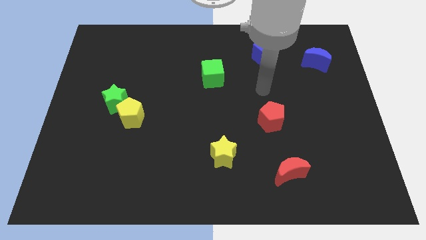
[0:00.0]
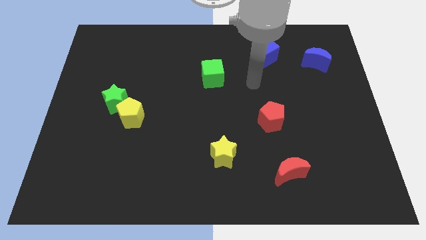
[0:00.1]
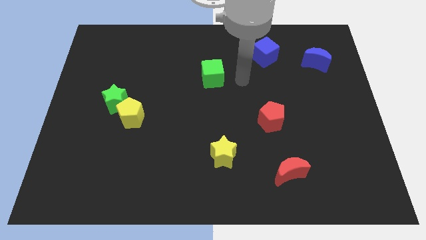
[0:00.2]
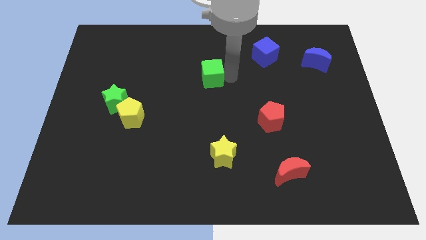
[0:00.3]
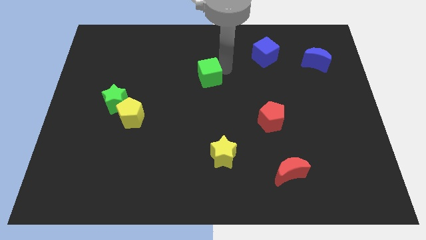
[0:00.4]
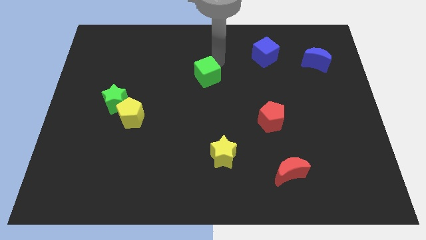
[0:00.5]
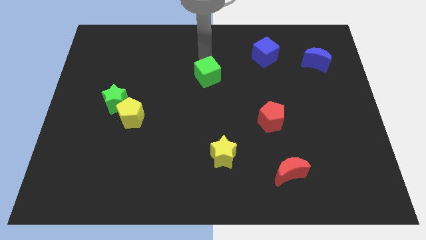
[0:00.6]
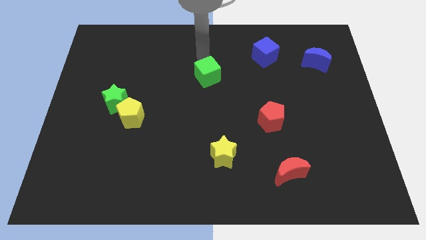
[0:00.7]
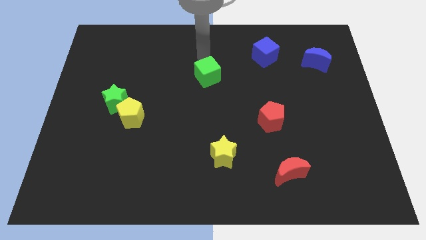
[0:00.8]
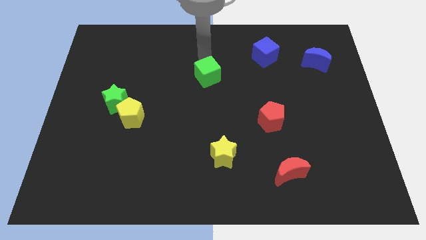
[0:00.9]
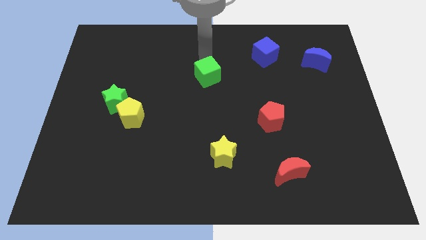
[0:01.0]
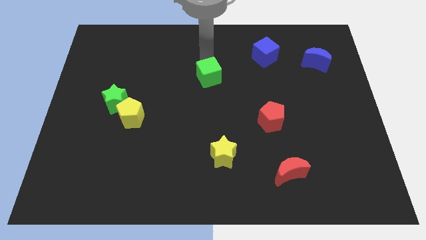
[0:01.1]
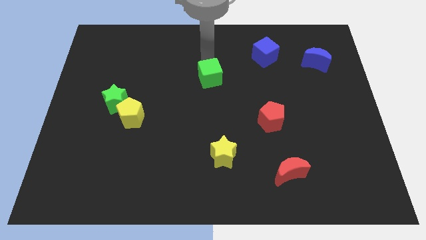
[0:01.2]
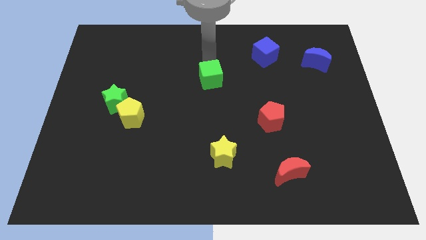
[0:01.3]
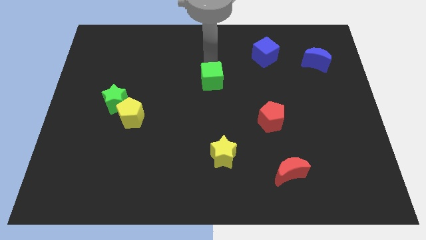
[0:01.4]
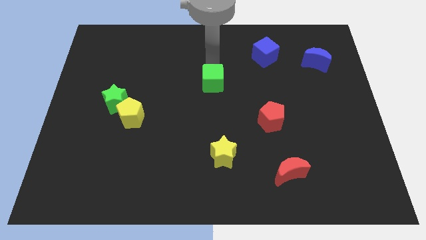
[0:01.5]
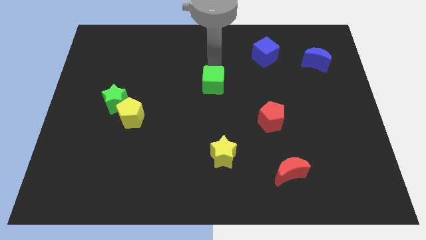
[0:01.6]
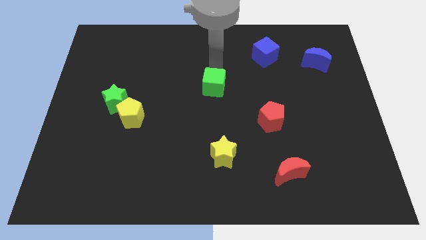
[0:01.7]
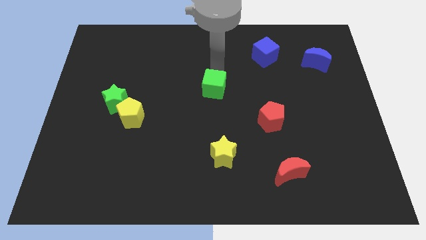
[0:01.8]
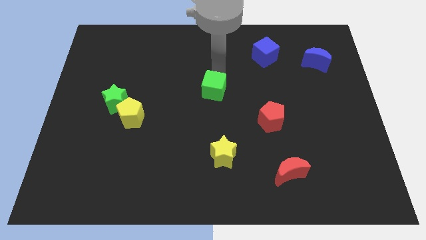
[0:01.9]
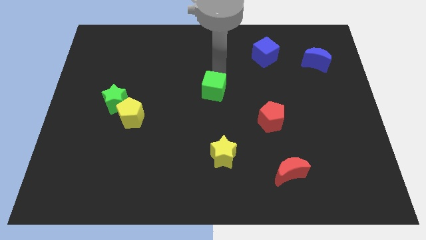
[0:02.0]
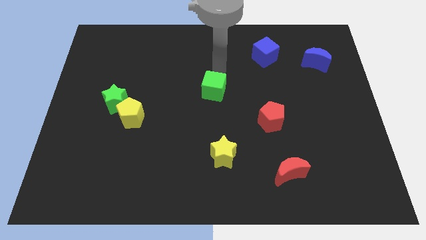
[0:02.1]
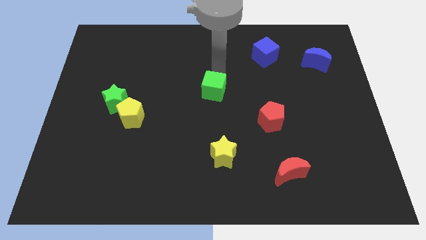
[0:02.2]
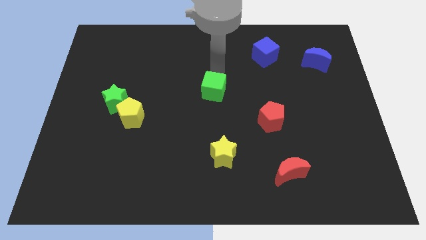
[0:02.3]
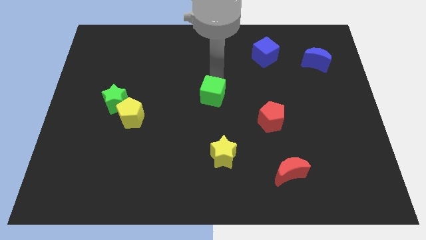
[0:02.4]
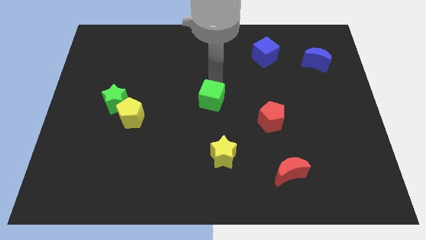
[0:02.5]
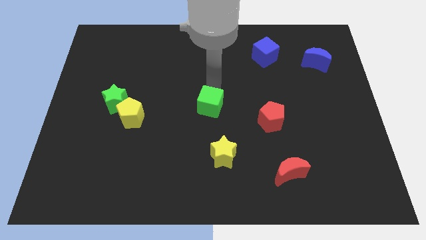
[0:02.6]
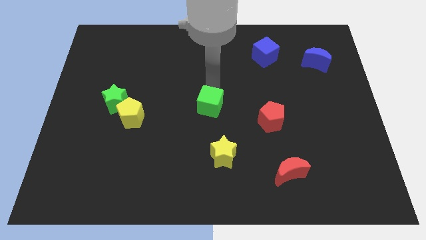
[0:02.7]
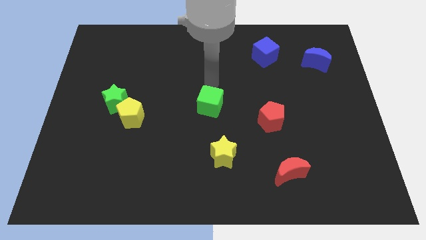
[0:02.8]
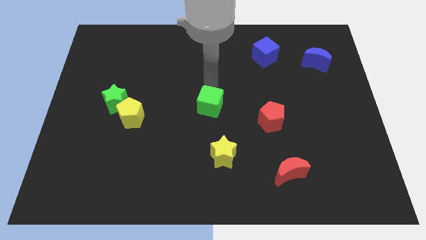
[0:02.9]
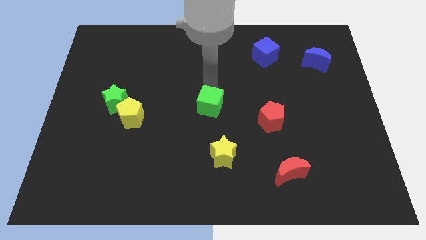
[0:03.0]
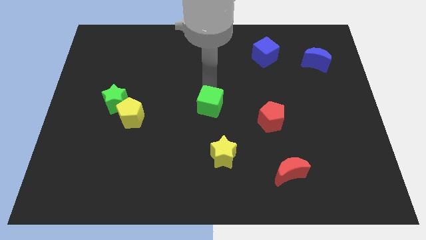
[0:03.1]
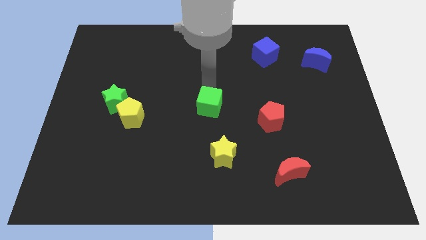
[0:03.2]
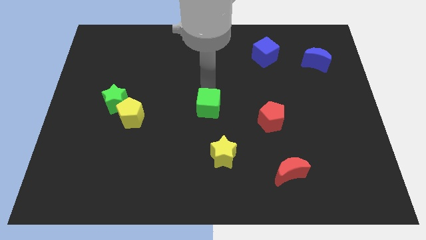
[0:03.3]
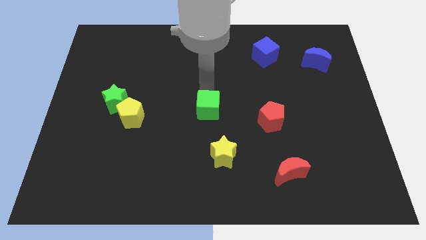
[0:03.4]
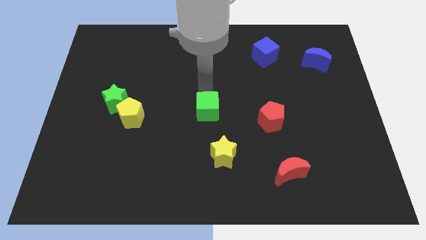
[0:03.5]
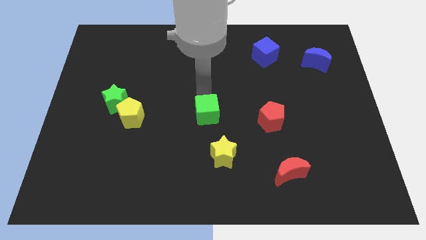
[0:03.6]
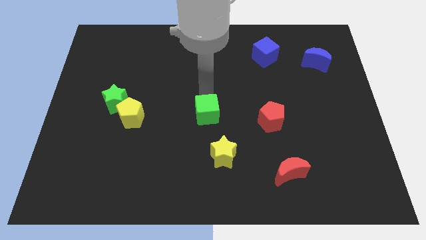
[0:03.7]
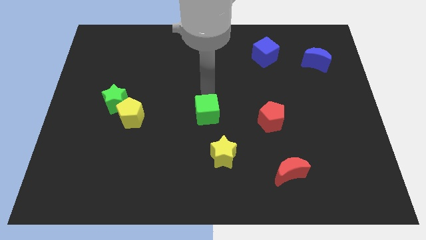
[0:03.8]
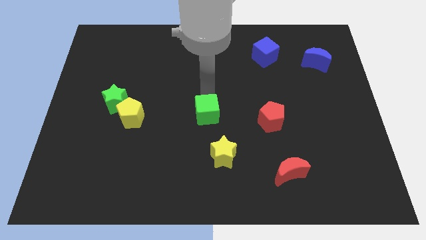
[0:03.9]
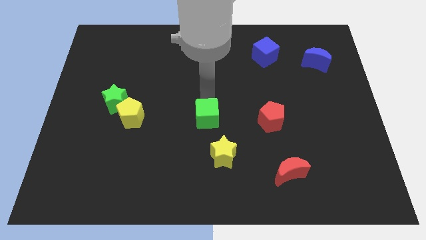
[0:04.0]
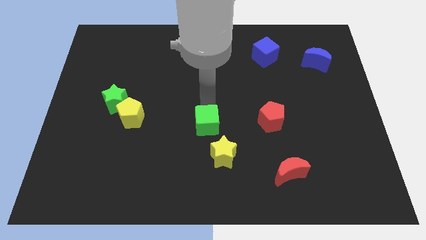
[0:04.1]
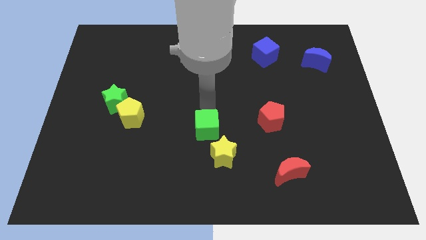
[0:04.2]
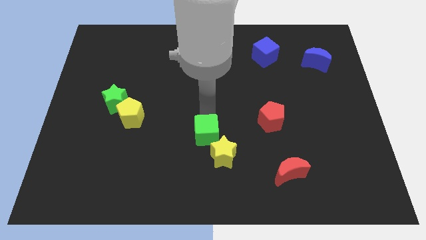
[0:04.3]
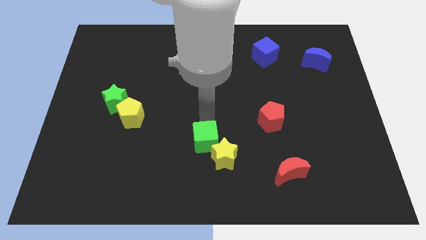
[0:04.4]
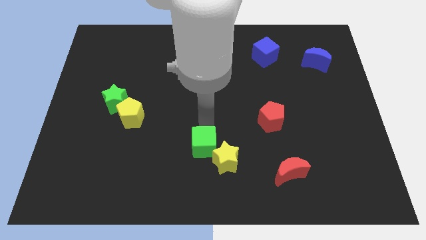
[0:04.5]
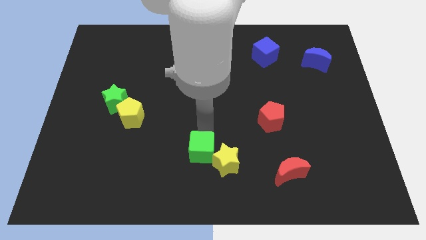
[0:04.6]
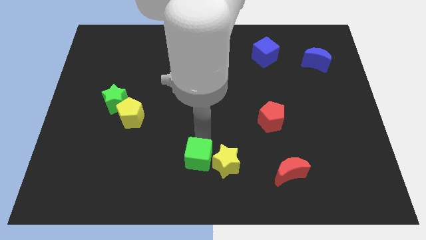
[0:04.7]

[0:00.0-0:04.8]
push the green cube to the bottom side

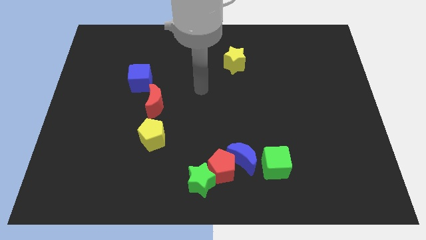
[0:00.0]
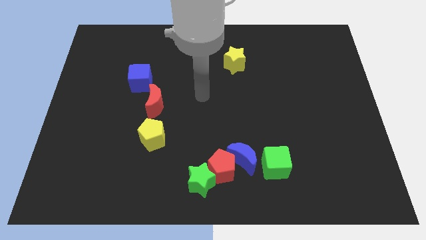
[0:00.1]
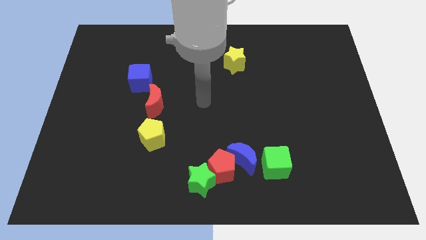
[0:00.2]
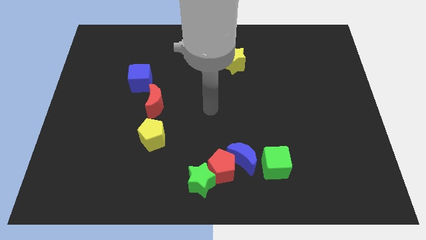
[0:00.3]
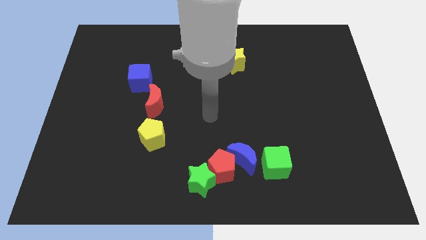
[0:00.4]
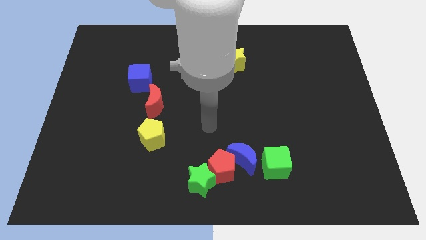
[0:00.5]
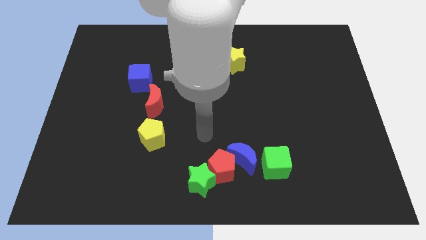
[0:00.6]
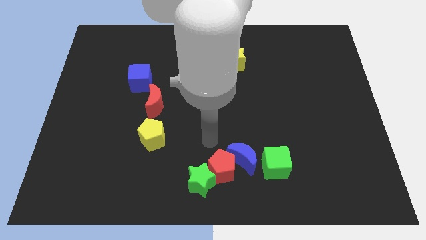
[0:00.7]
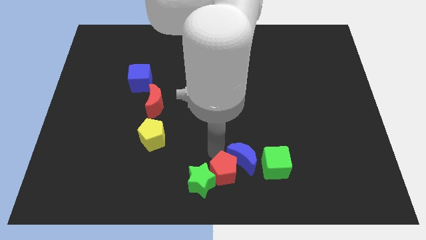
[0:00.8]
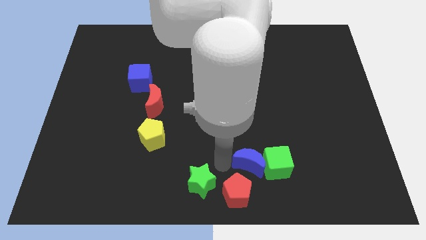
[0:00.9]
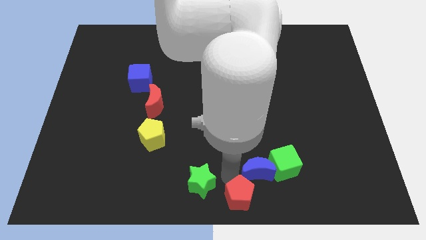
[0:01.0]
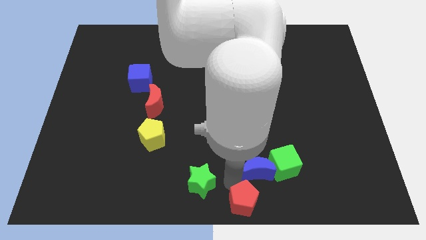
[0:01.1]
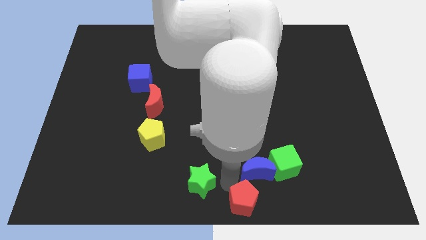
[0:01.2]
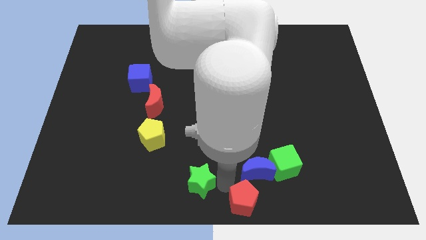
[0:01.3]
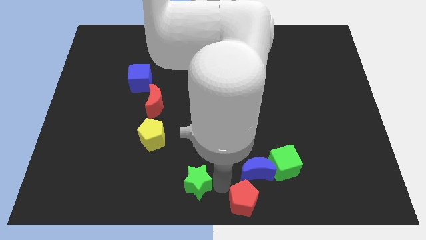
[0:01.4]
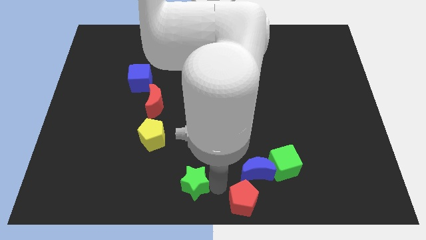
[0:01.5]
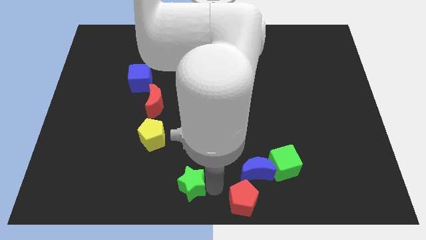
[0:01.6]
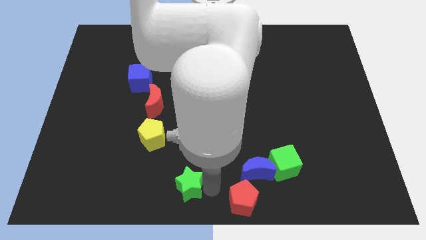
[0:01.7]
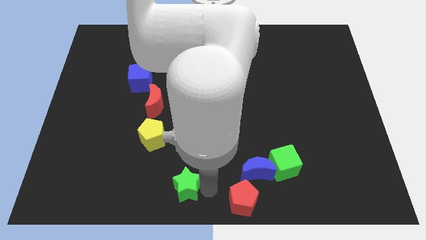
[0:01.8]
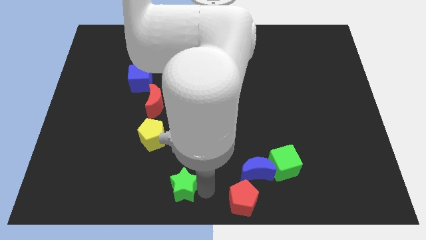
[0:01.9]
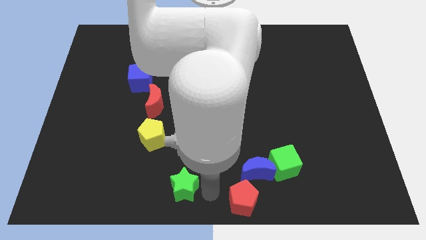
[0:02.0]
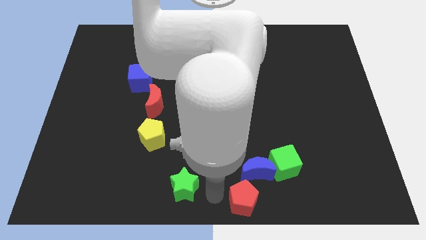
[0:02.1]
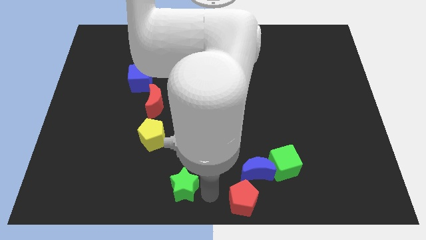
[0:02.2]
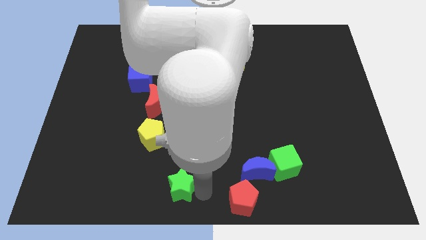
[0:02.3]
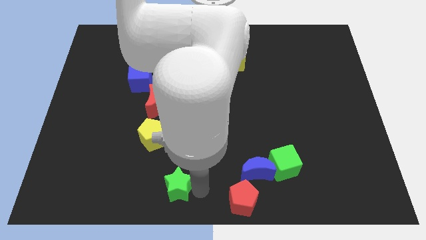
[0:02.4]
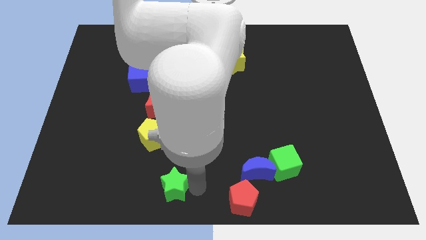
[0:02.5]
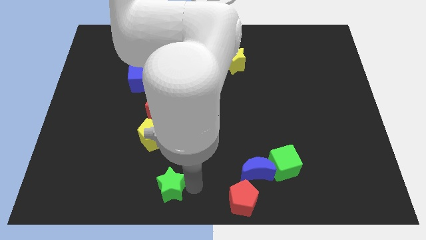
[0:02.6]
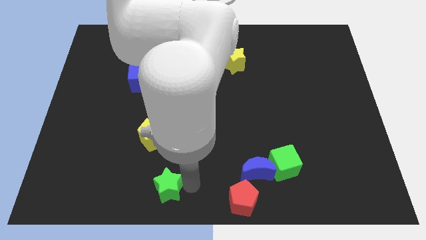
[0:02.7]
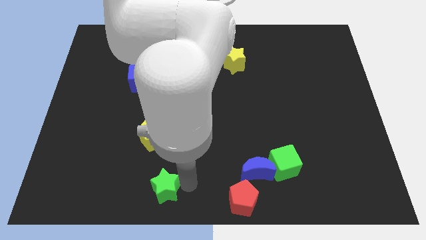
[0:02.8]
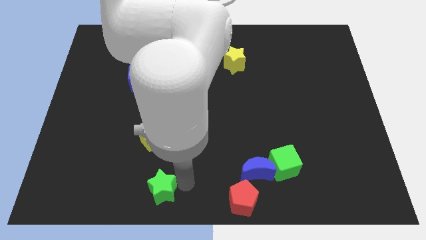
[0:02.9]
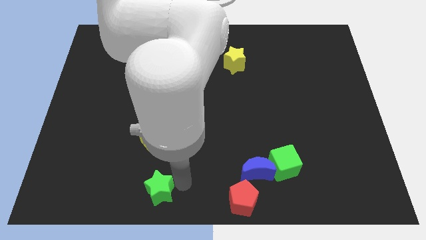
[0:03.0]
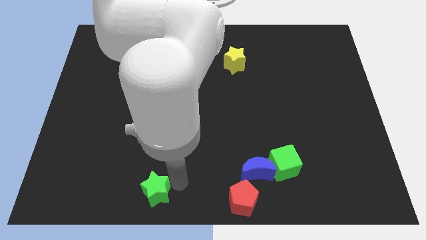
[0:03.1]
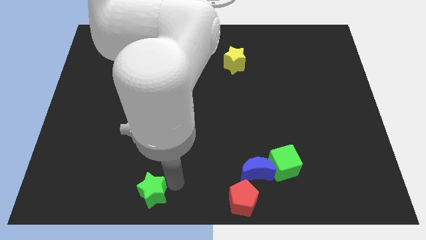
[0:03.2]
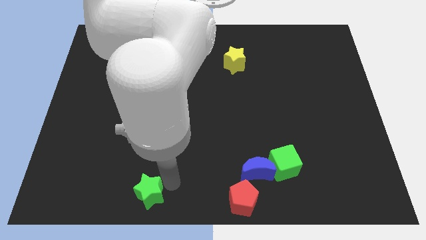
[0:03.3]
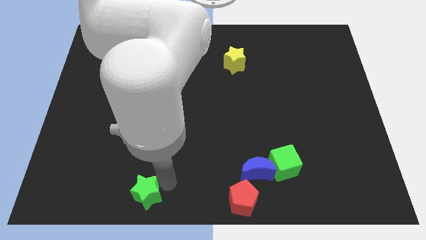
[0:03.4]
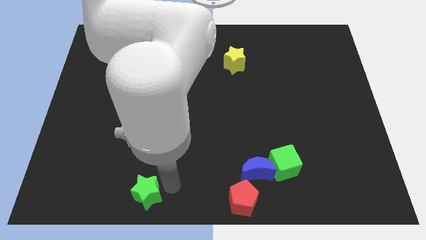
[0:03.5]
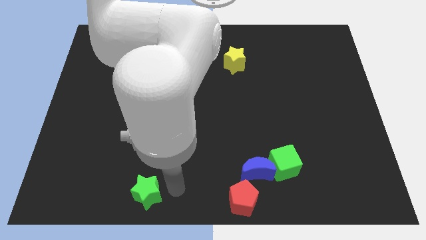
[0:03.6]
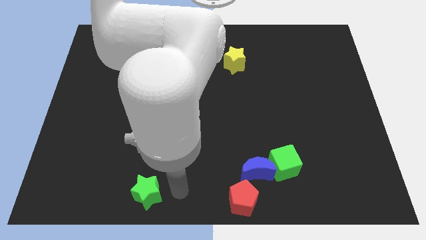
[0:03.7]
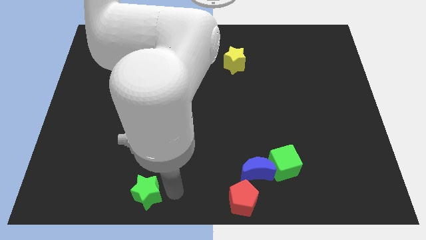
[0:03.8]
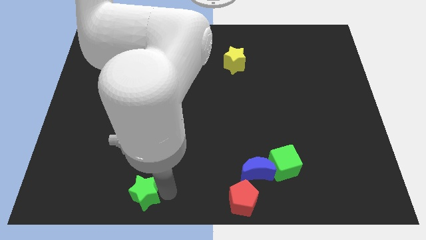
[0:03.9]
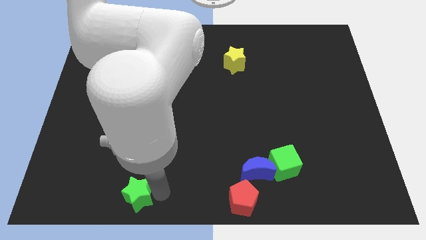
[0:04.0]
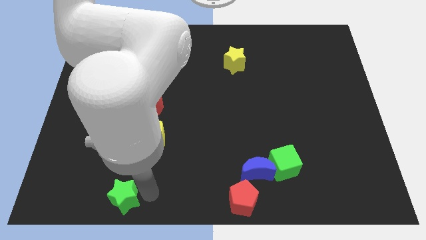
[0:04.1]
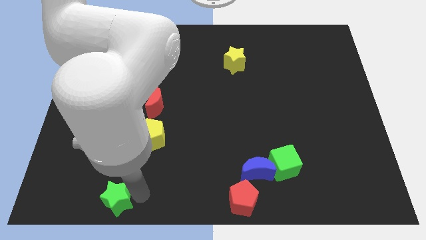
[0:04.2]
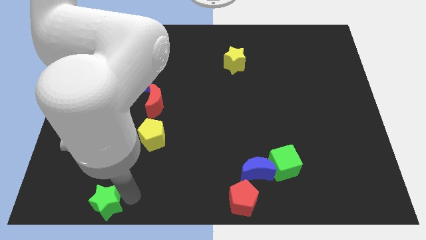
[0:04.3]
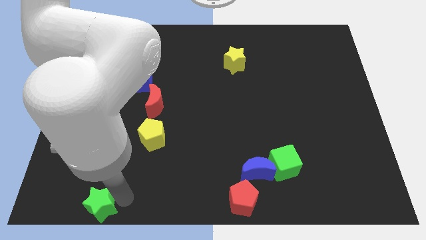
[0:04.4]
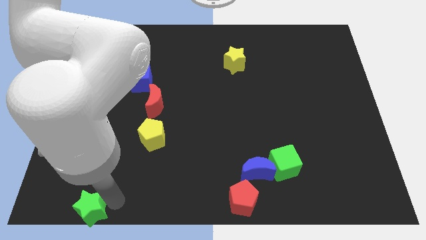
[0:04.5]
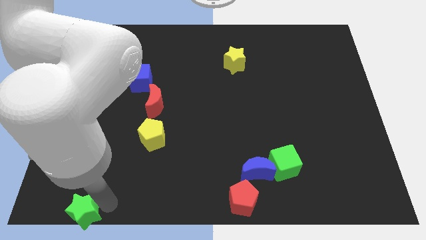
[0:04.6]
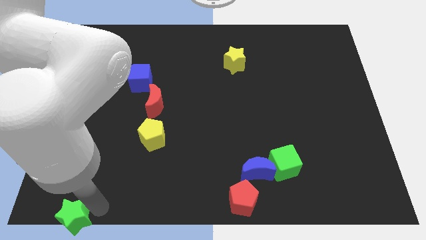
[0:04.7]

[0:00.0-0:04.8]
push the green star to the bottom left
